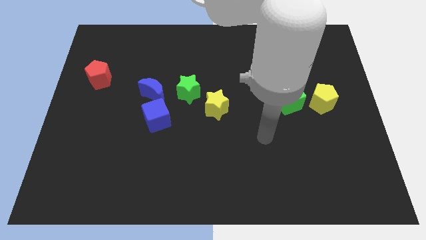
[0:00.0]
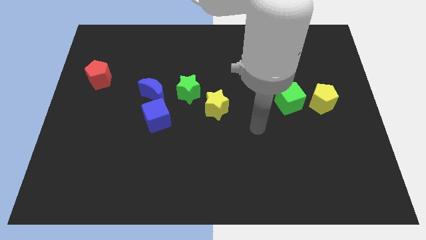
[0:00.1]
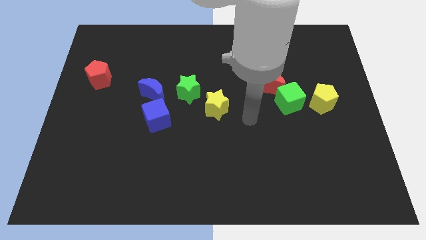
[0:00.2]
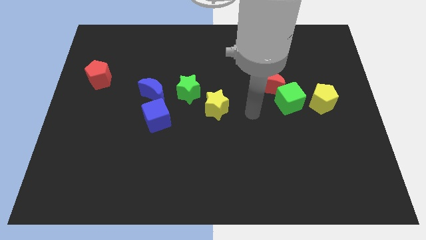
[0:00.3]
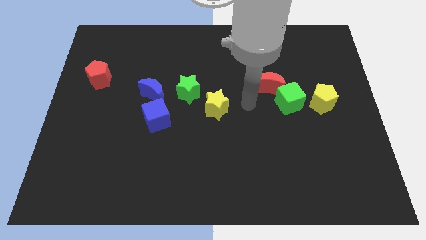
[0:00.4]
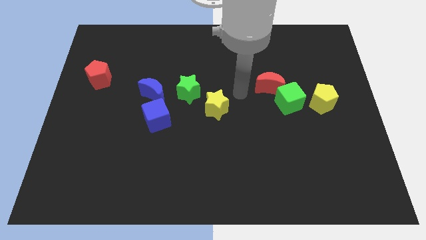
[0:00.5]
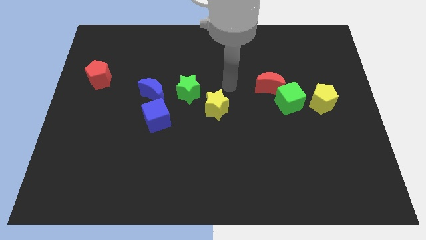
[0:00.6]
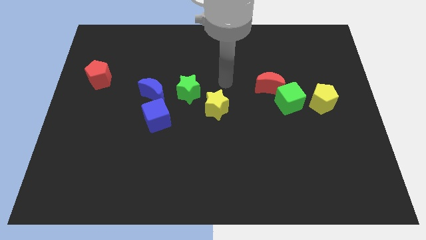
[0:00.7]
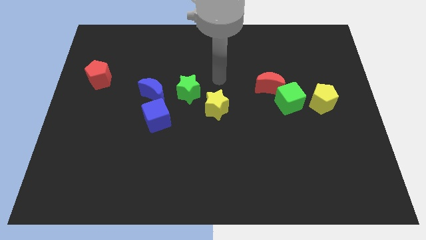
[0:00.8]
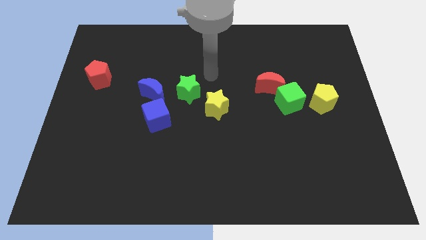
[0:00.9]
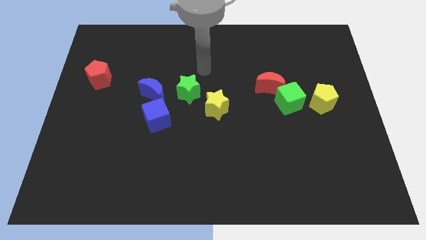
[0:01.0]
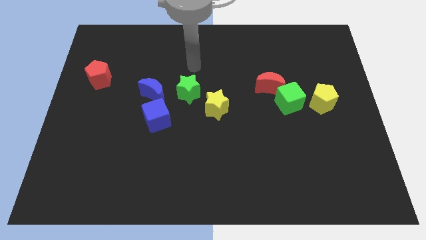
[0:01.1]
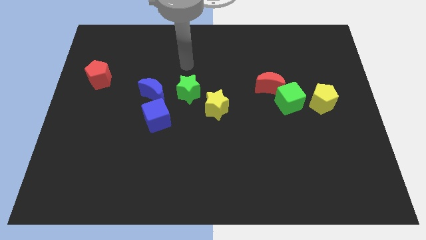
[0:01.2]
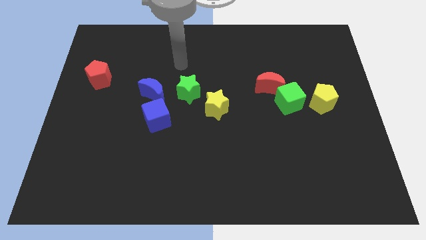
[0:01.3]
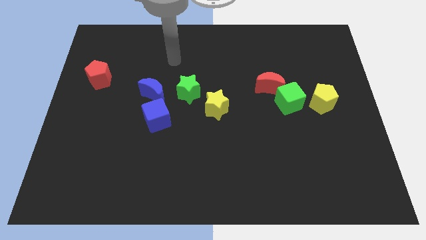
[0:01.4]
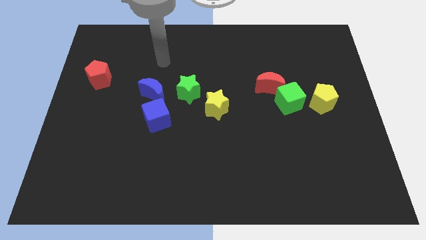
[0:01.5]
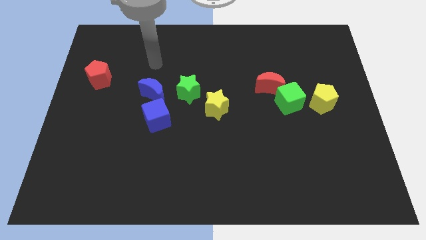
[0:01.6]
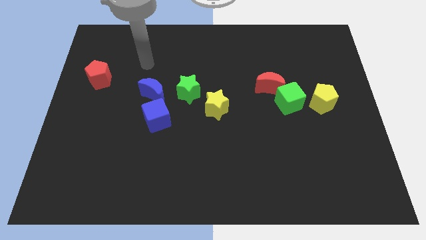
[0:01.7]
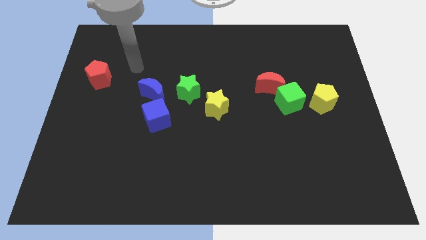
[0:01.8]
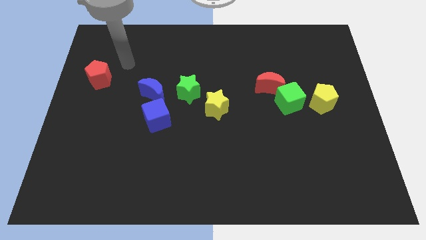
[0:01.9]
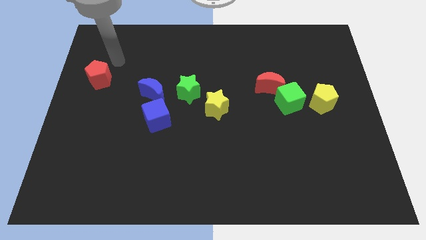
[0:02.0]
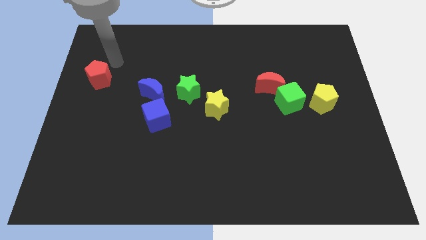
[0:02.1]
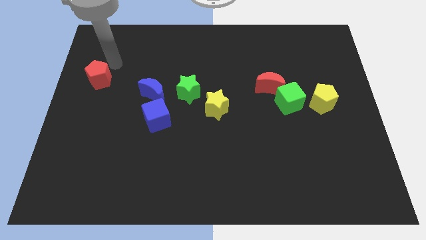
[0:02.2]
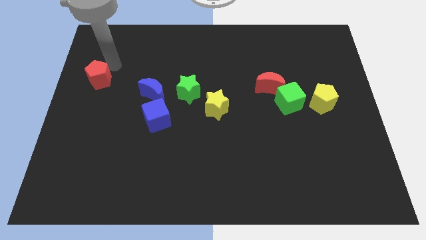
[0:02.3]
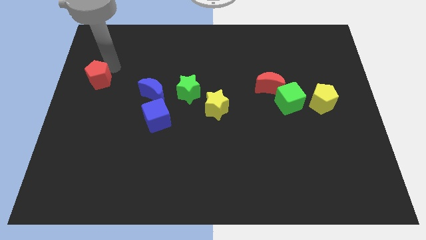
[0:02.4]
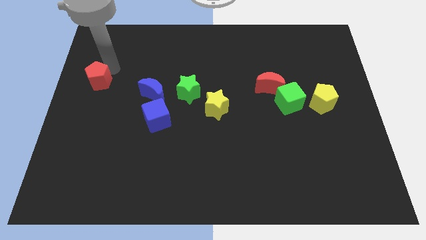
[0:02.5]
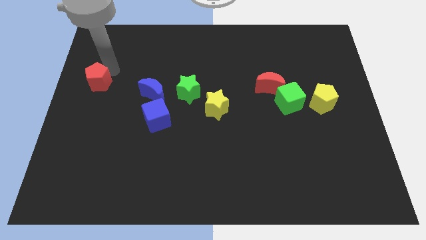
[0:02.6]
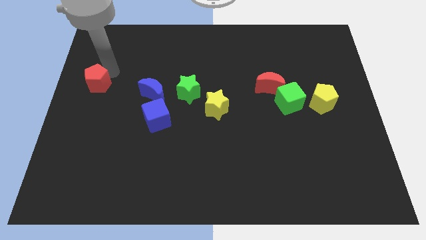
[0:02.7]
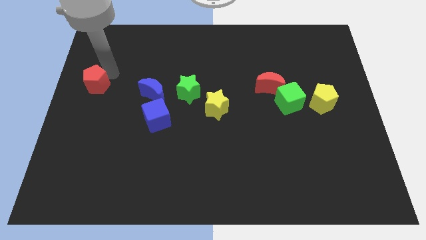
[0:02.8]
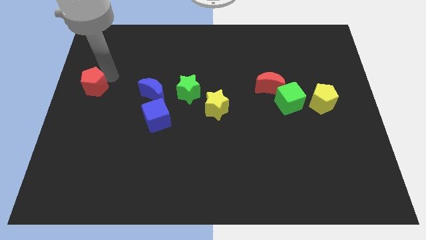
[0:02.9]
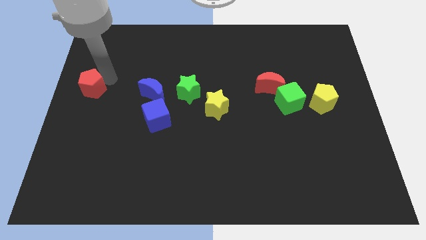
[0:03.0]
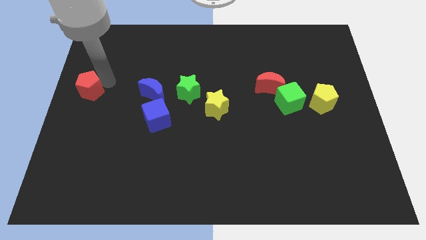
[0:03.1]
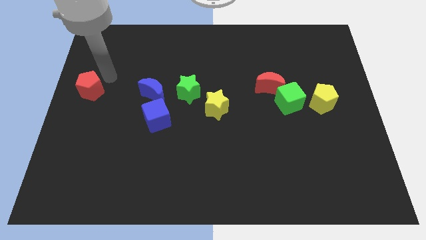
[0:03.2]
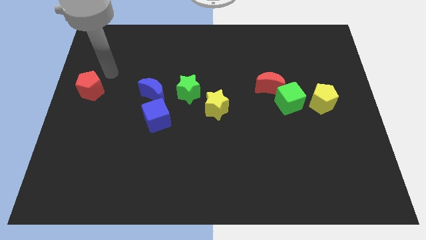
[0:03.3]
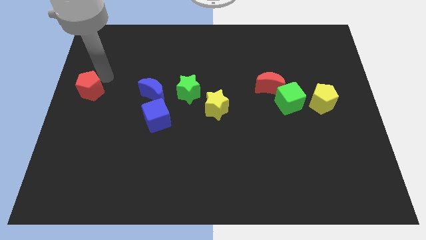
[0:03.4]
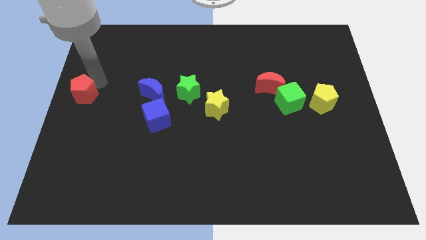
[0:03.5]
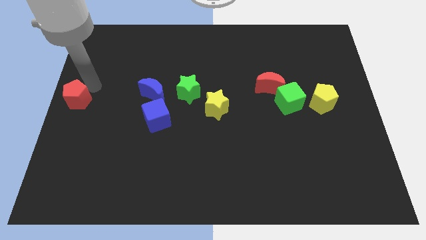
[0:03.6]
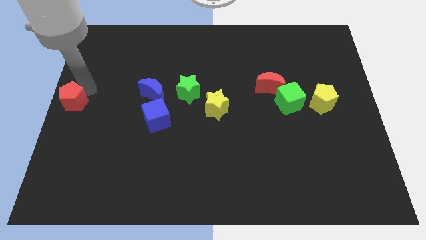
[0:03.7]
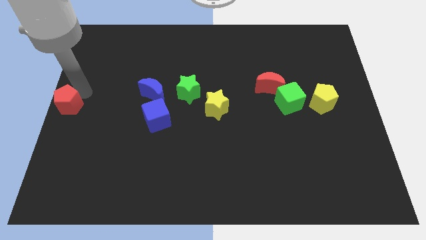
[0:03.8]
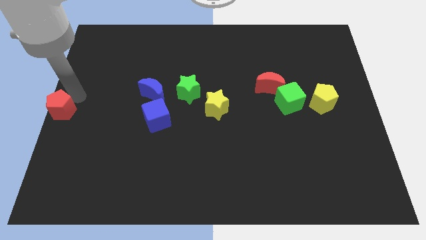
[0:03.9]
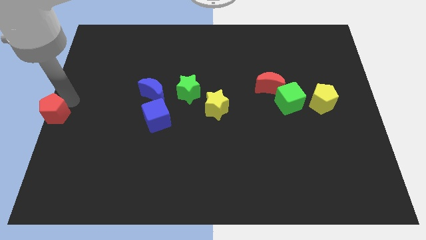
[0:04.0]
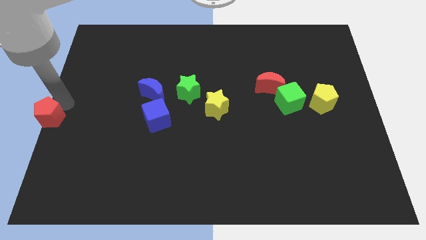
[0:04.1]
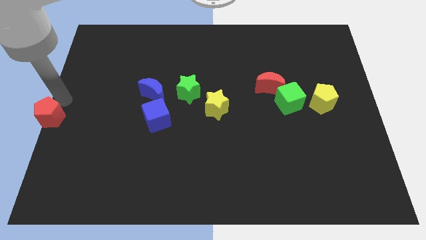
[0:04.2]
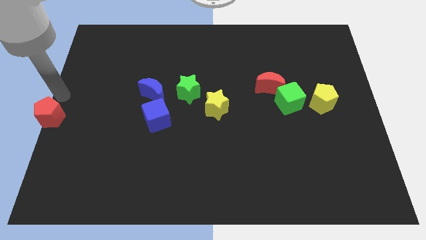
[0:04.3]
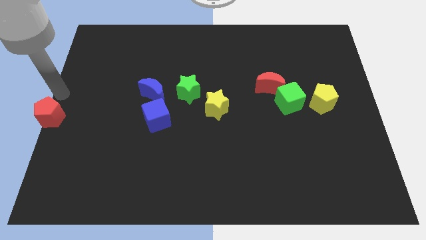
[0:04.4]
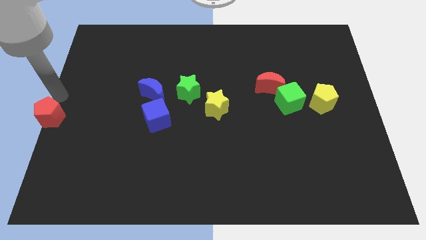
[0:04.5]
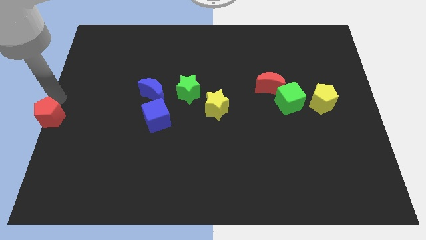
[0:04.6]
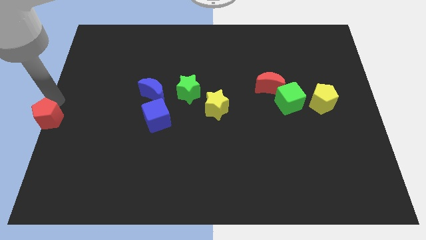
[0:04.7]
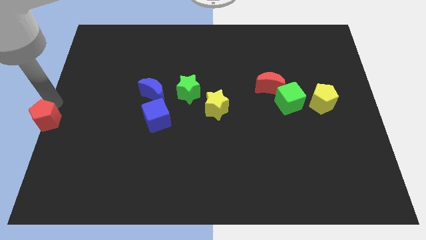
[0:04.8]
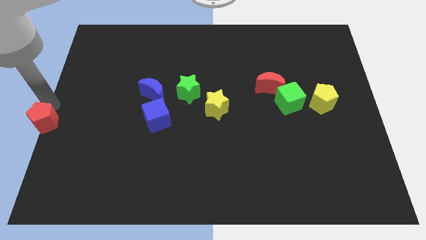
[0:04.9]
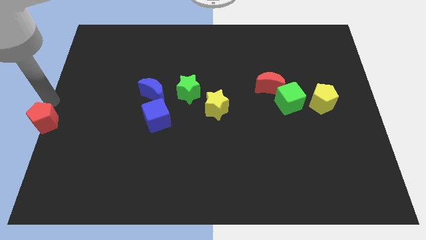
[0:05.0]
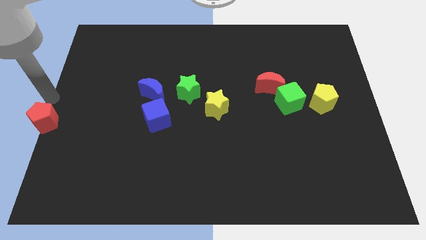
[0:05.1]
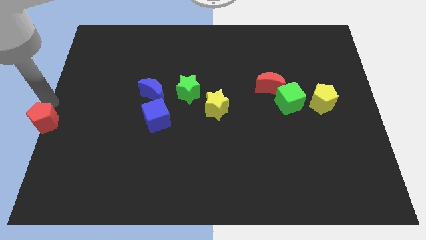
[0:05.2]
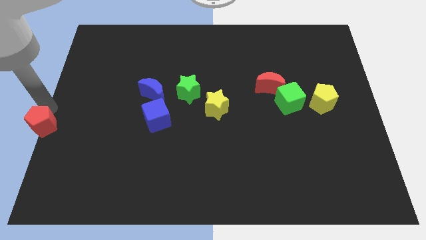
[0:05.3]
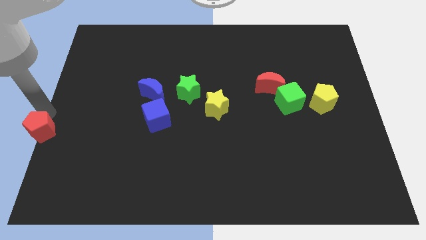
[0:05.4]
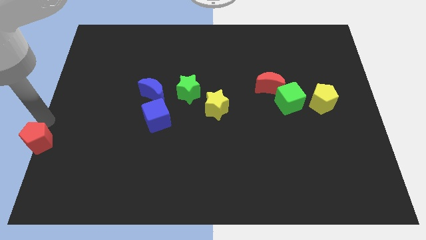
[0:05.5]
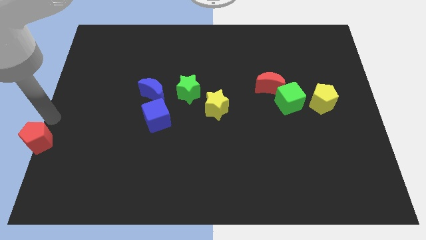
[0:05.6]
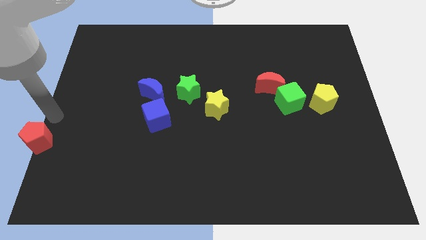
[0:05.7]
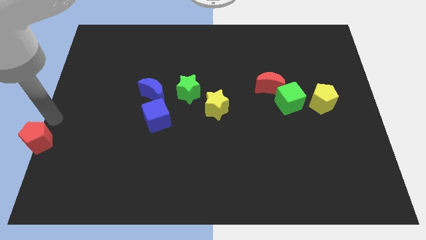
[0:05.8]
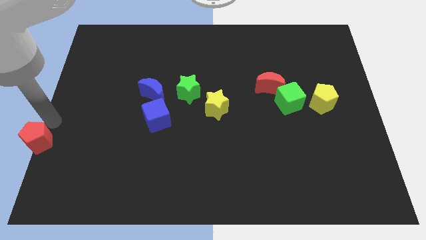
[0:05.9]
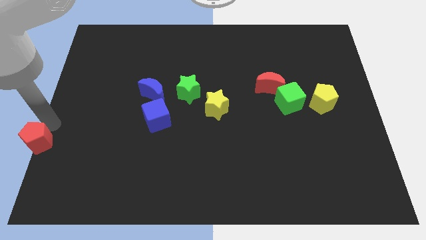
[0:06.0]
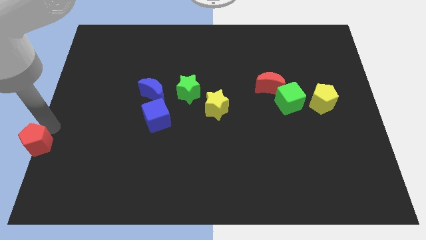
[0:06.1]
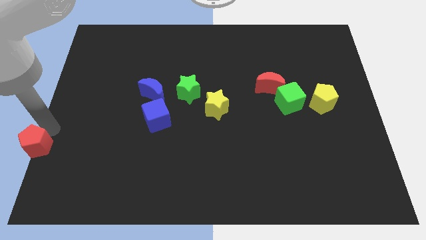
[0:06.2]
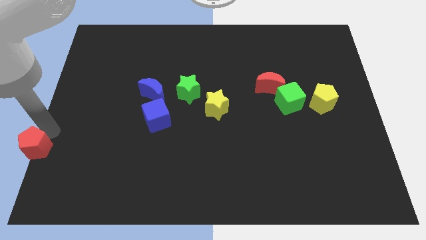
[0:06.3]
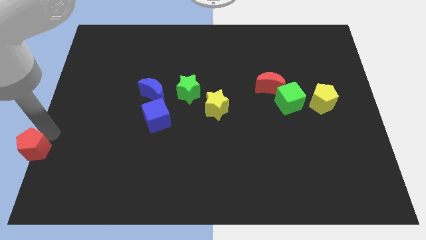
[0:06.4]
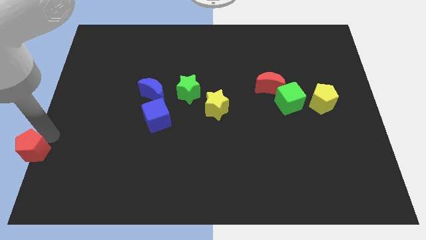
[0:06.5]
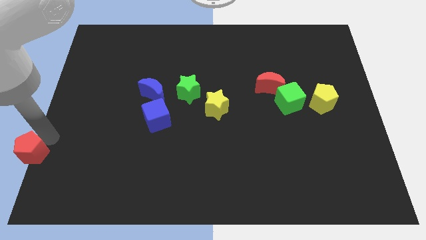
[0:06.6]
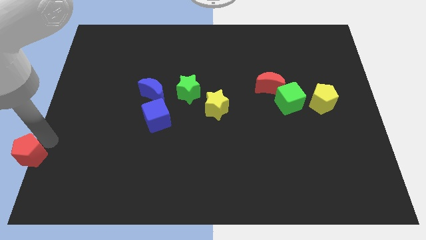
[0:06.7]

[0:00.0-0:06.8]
move the red pentagon to the bottom left corner
